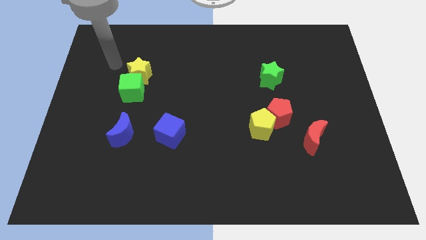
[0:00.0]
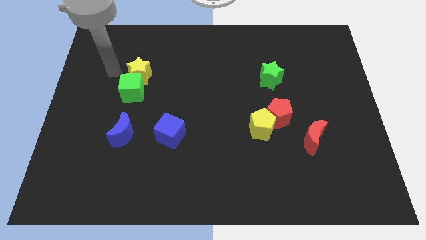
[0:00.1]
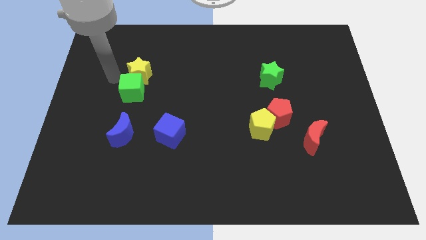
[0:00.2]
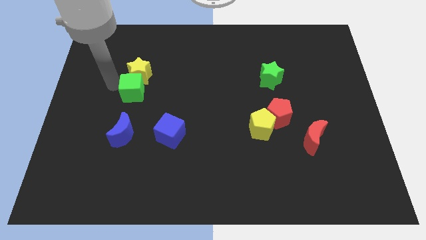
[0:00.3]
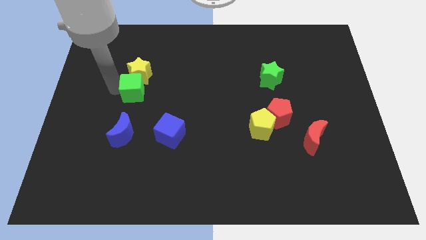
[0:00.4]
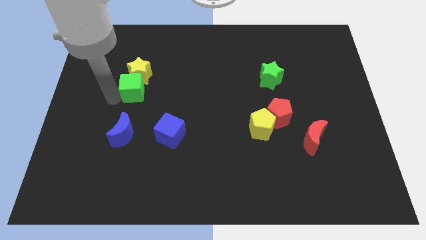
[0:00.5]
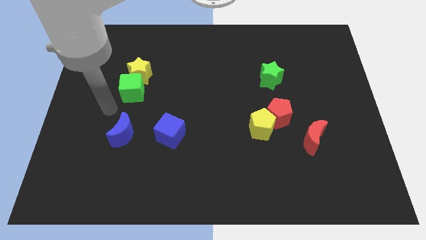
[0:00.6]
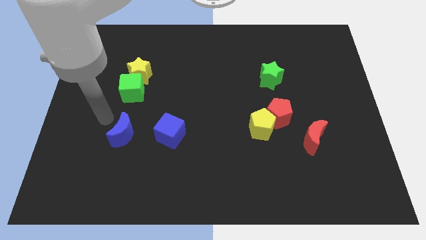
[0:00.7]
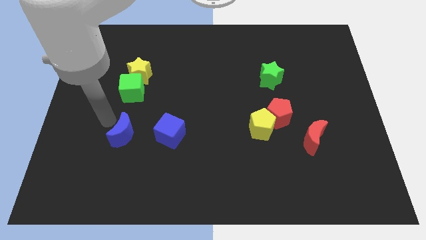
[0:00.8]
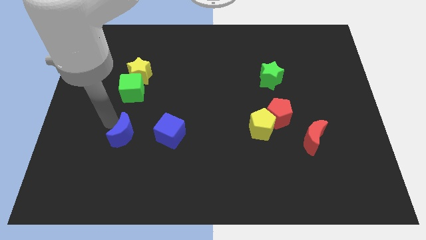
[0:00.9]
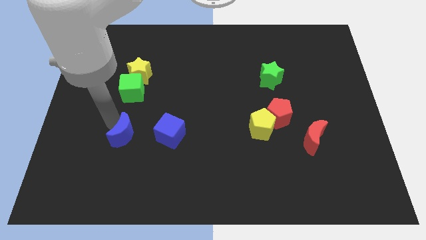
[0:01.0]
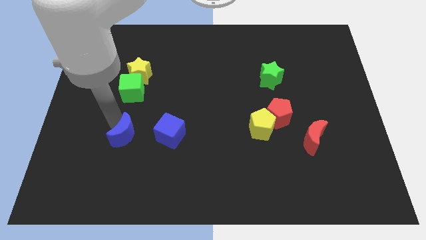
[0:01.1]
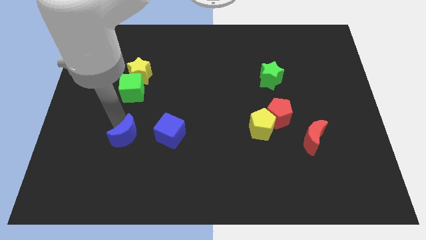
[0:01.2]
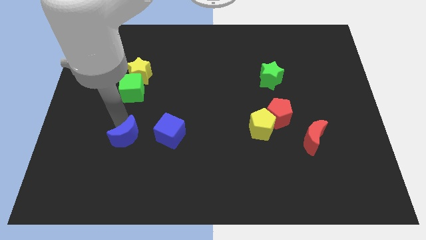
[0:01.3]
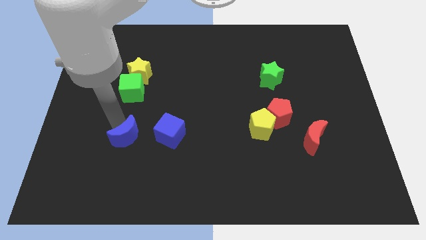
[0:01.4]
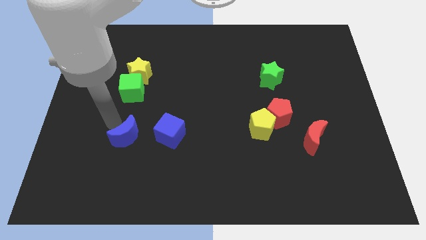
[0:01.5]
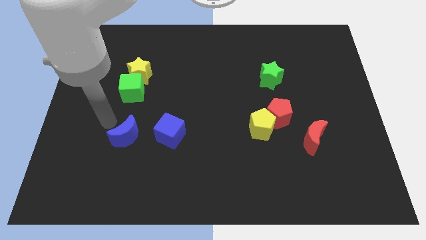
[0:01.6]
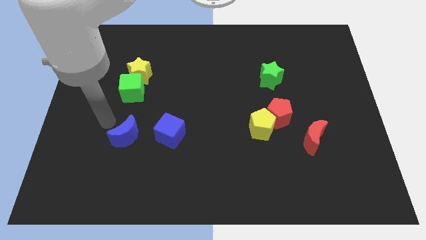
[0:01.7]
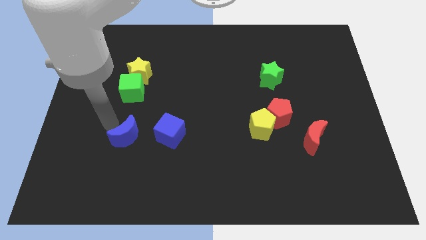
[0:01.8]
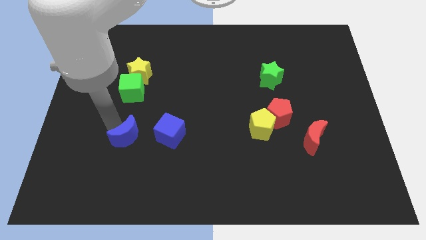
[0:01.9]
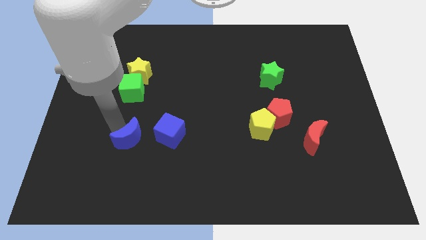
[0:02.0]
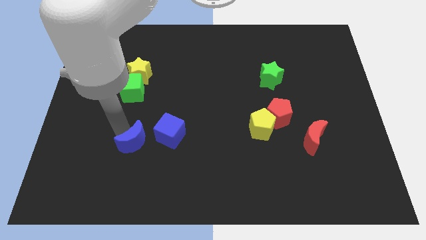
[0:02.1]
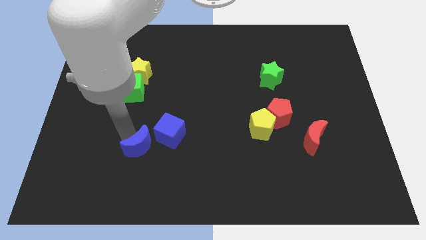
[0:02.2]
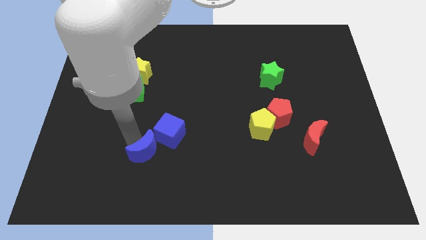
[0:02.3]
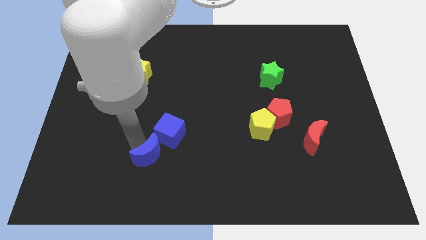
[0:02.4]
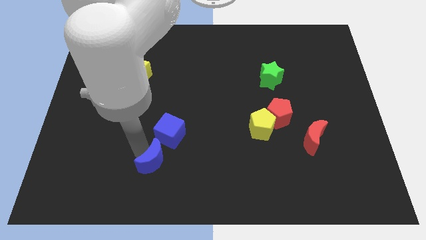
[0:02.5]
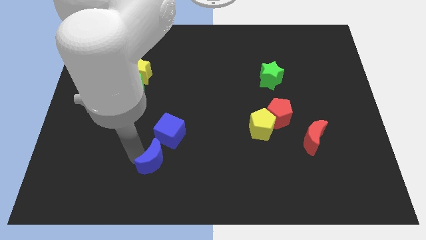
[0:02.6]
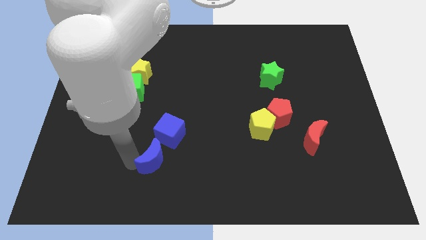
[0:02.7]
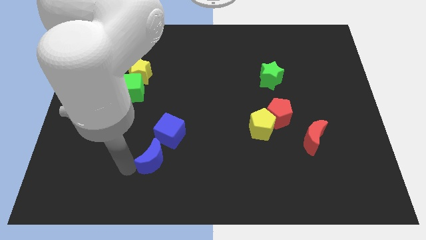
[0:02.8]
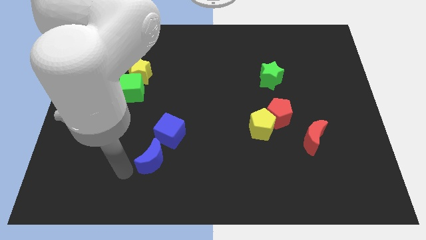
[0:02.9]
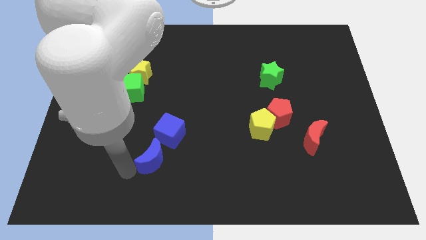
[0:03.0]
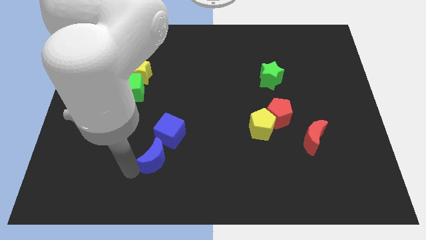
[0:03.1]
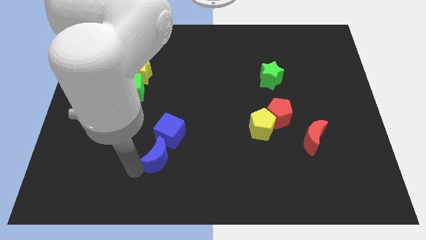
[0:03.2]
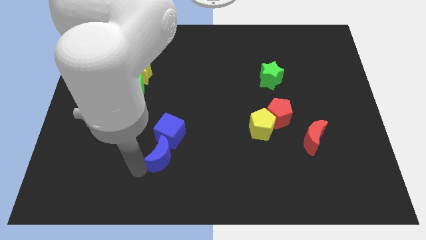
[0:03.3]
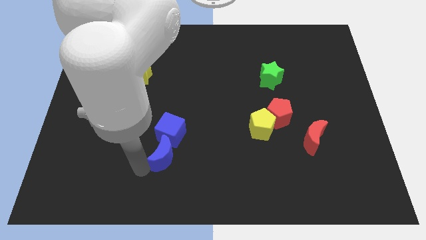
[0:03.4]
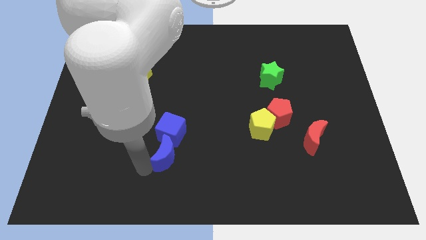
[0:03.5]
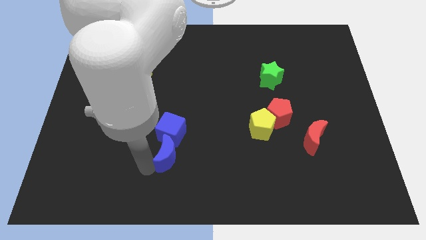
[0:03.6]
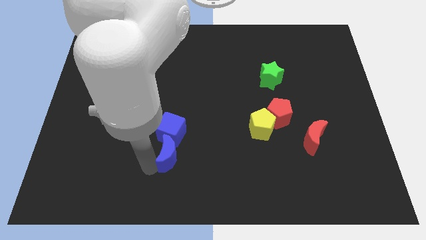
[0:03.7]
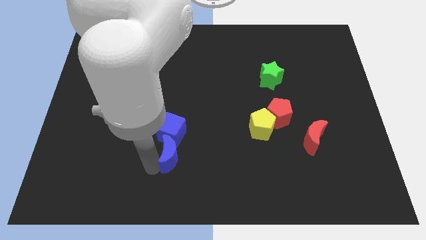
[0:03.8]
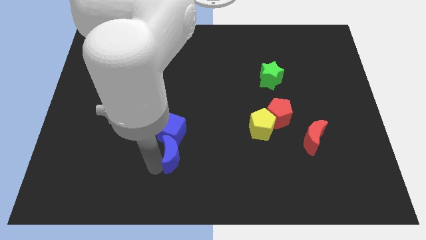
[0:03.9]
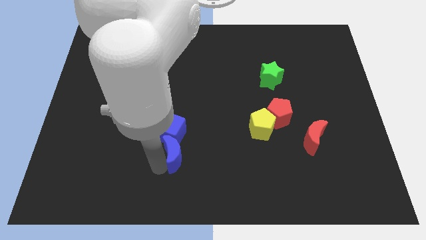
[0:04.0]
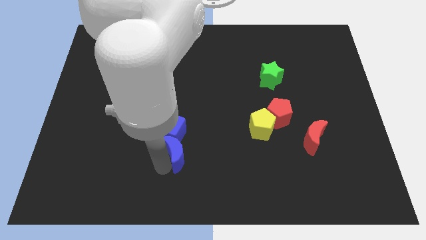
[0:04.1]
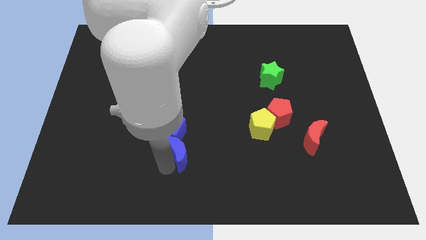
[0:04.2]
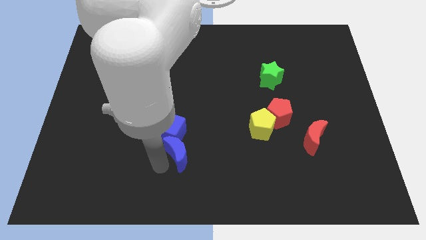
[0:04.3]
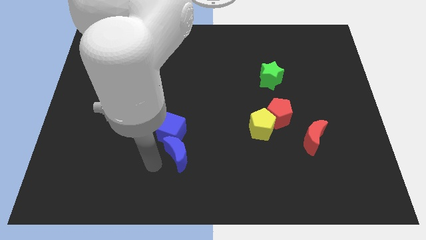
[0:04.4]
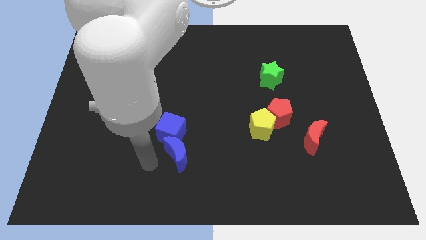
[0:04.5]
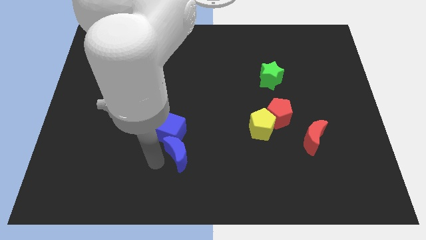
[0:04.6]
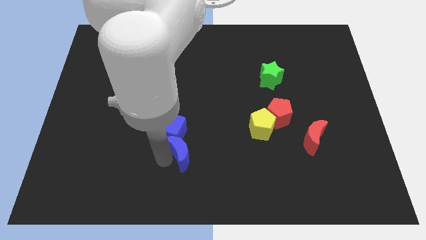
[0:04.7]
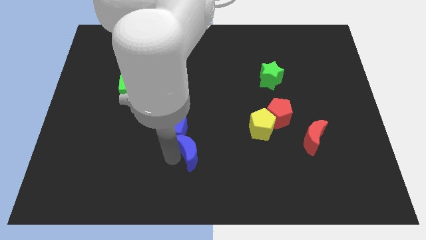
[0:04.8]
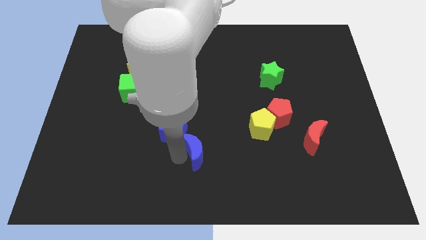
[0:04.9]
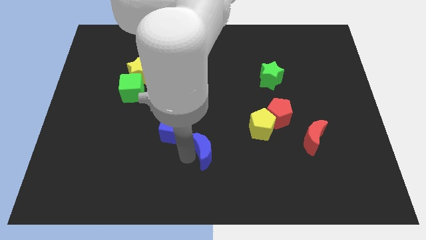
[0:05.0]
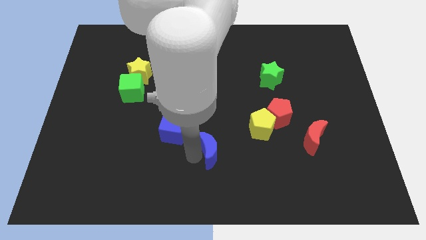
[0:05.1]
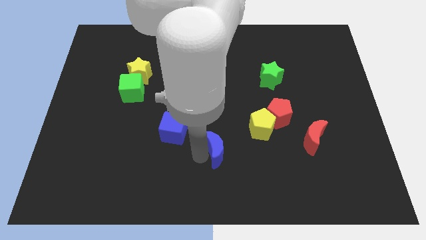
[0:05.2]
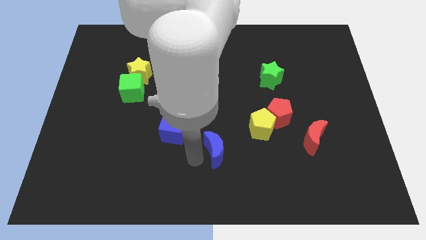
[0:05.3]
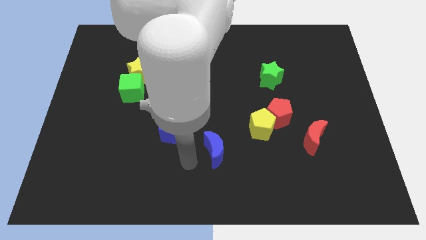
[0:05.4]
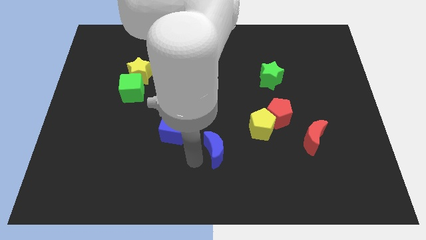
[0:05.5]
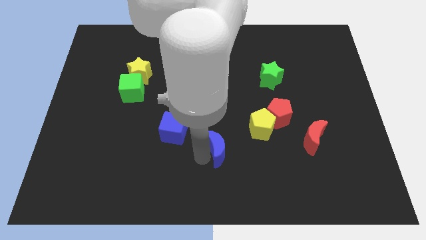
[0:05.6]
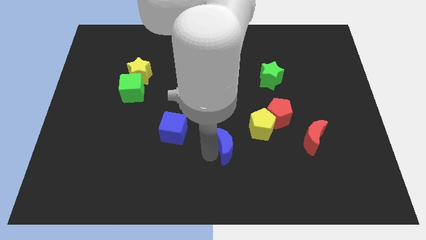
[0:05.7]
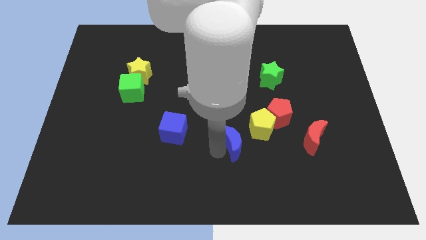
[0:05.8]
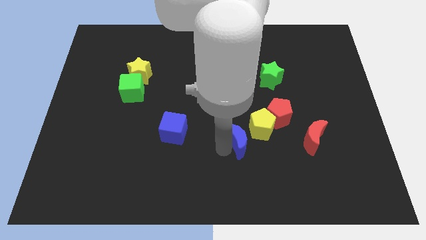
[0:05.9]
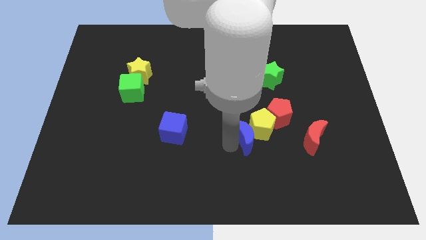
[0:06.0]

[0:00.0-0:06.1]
put the blue moon just left of the red moon
